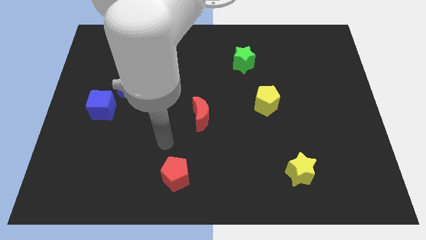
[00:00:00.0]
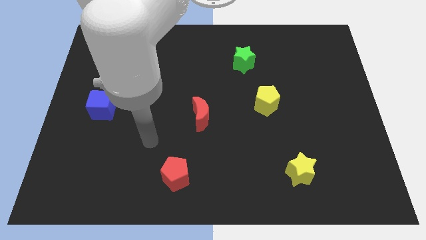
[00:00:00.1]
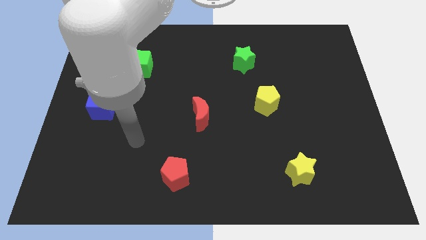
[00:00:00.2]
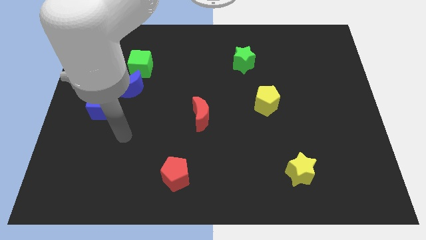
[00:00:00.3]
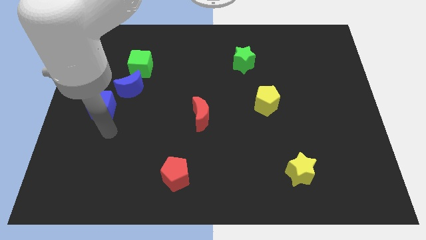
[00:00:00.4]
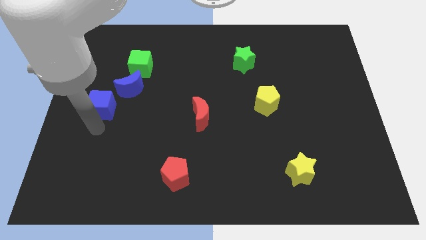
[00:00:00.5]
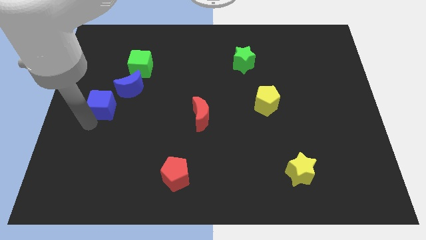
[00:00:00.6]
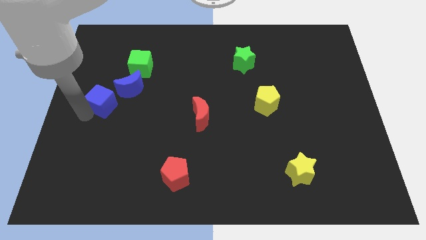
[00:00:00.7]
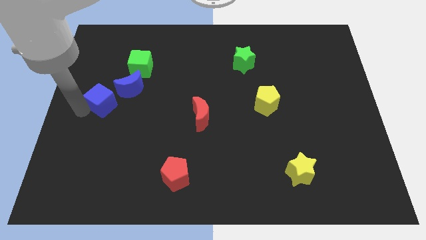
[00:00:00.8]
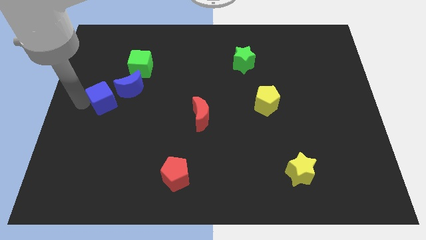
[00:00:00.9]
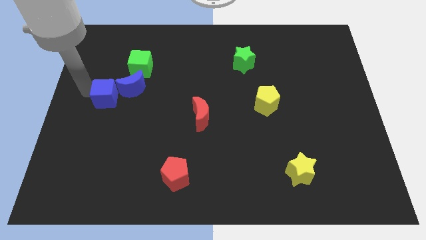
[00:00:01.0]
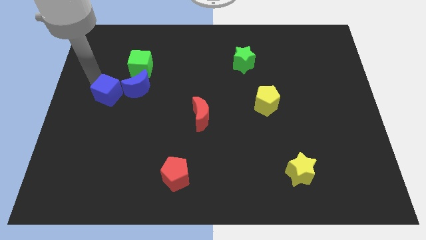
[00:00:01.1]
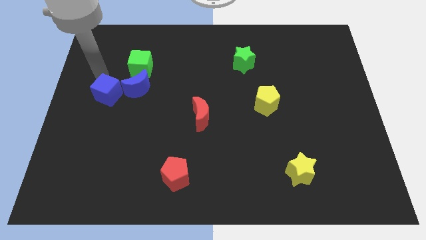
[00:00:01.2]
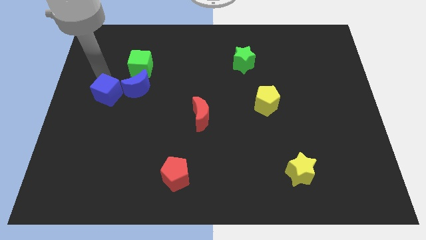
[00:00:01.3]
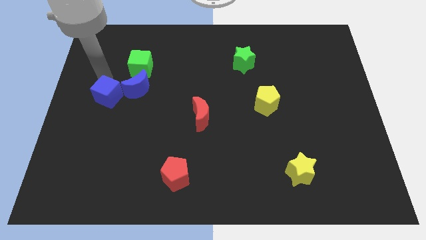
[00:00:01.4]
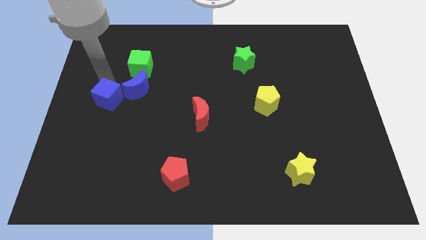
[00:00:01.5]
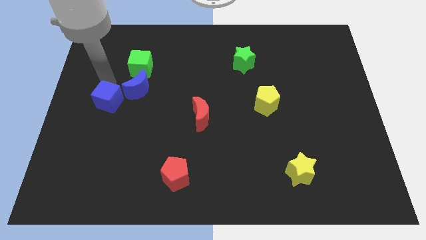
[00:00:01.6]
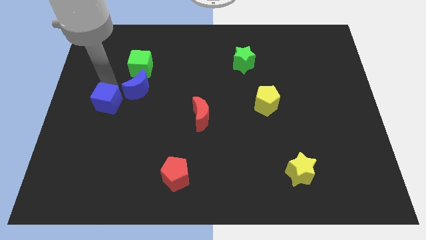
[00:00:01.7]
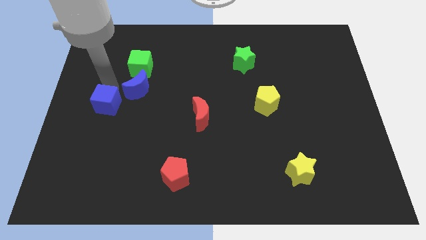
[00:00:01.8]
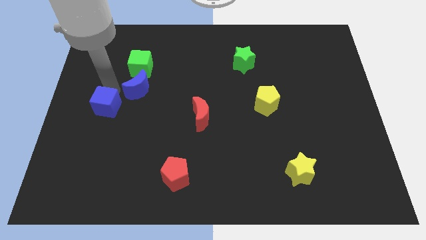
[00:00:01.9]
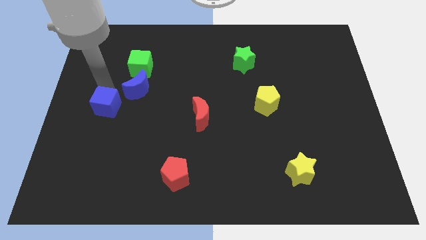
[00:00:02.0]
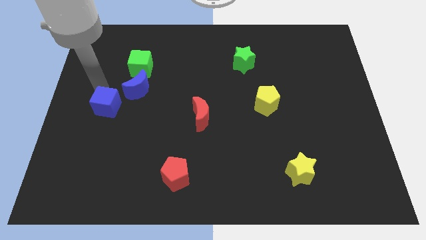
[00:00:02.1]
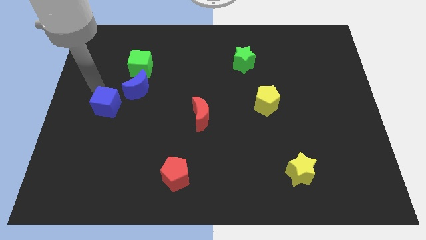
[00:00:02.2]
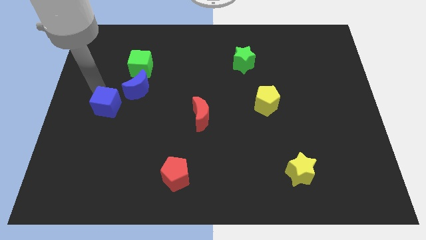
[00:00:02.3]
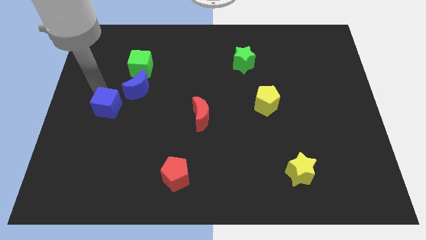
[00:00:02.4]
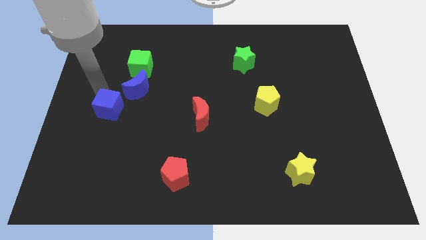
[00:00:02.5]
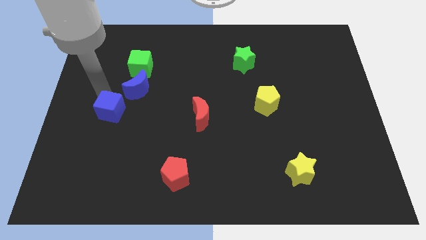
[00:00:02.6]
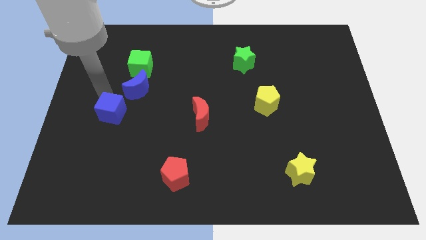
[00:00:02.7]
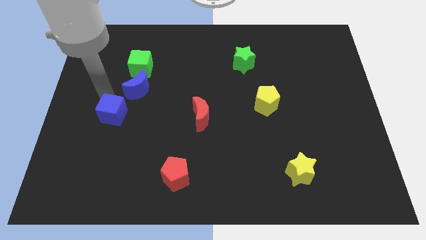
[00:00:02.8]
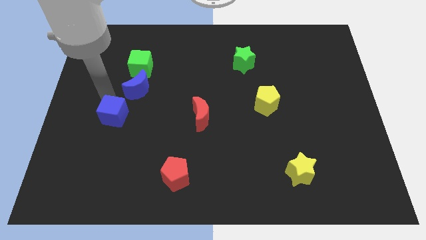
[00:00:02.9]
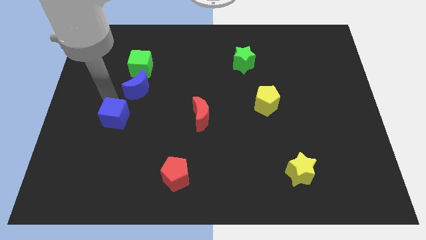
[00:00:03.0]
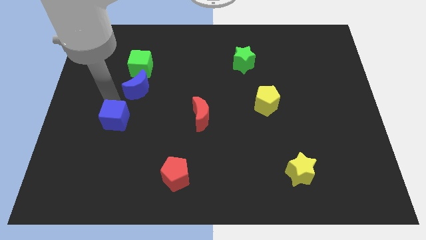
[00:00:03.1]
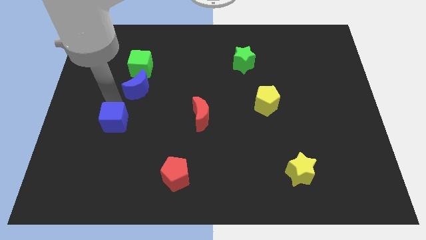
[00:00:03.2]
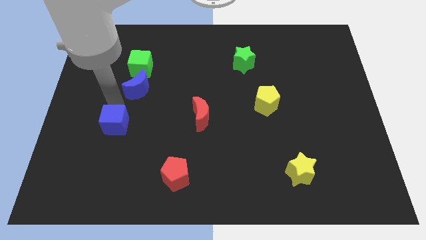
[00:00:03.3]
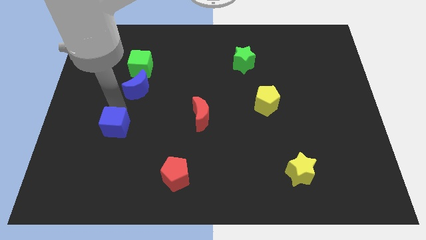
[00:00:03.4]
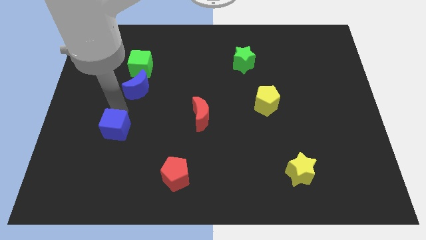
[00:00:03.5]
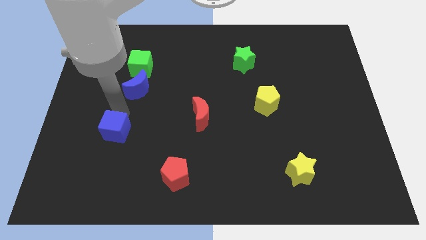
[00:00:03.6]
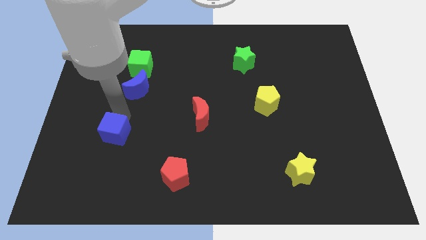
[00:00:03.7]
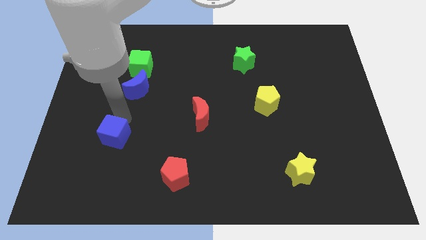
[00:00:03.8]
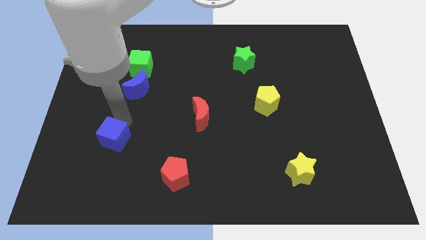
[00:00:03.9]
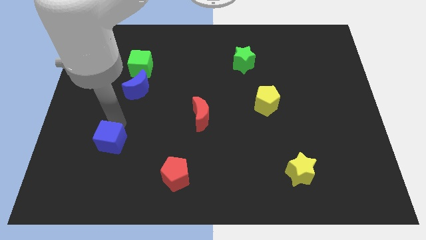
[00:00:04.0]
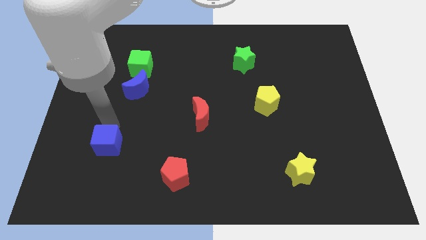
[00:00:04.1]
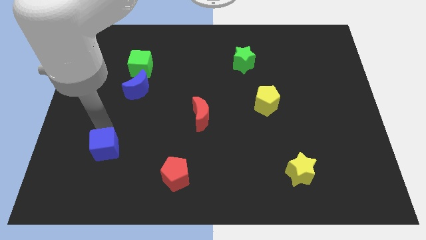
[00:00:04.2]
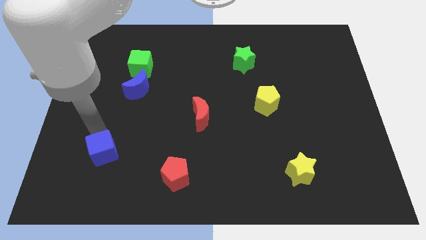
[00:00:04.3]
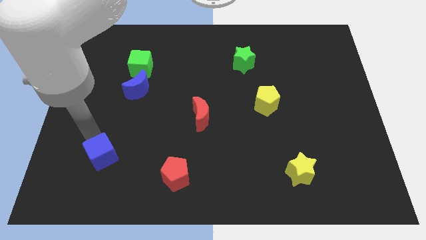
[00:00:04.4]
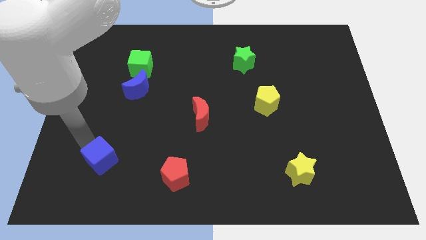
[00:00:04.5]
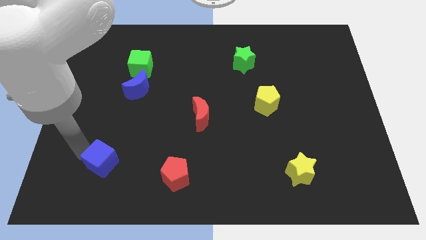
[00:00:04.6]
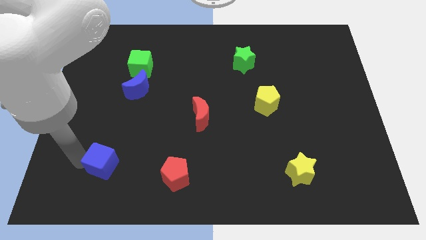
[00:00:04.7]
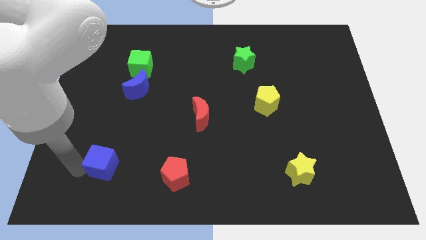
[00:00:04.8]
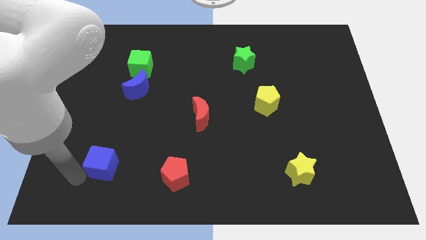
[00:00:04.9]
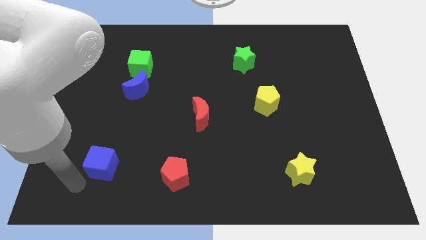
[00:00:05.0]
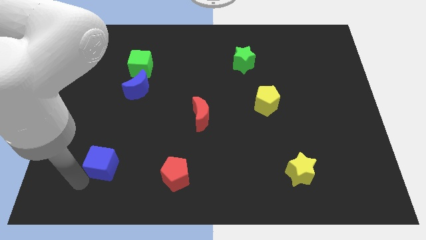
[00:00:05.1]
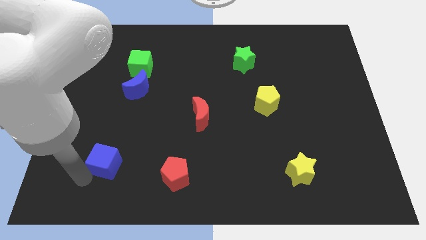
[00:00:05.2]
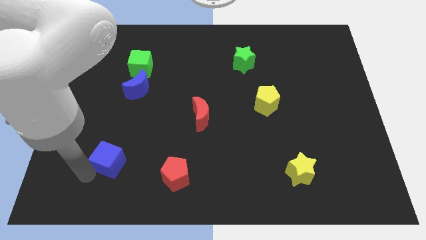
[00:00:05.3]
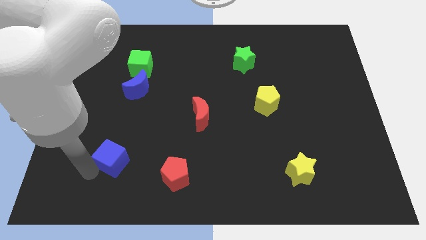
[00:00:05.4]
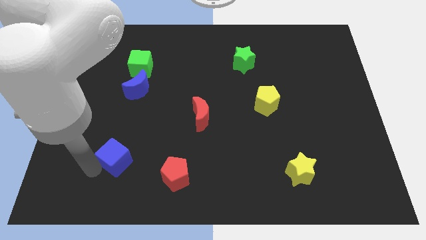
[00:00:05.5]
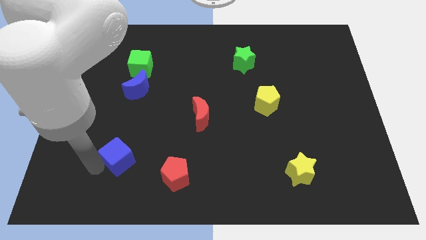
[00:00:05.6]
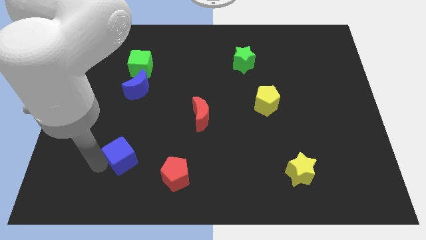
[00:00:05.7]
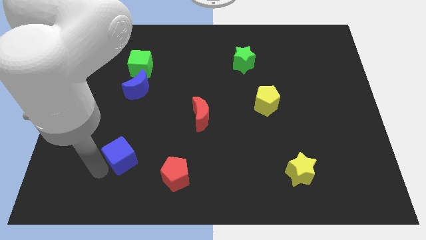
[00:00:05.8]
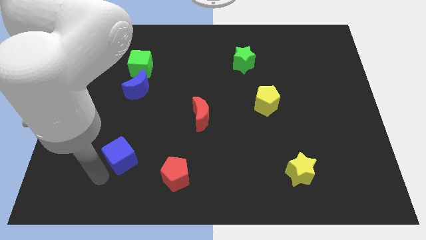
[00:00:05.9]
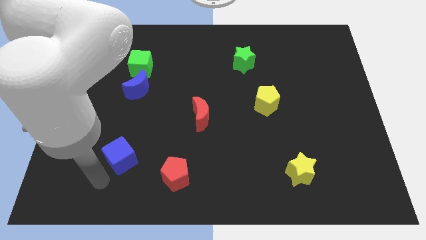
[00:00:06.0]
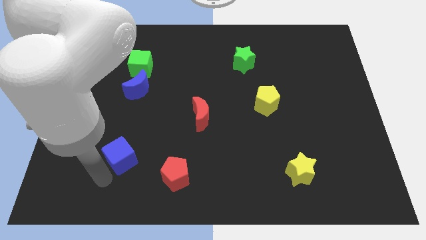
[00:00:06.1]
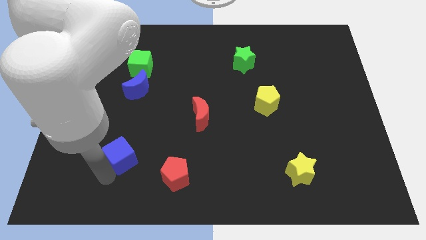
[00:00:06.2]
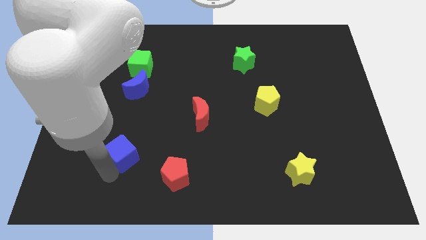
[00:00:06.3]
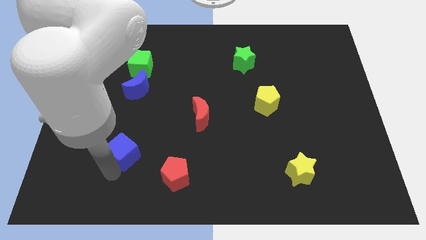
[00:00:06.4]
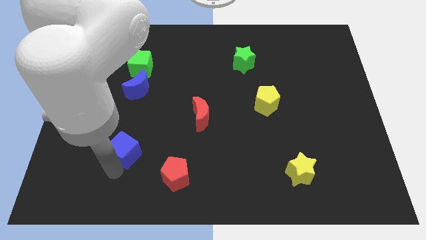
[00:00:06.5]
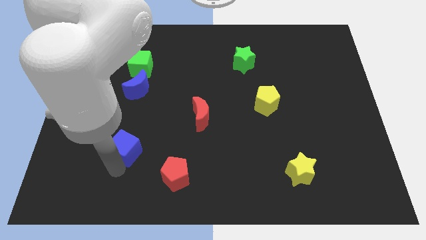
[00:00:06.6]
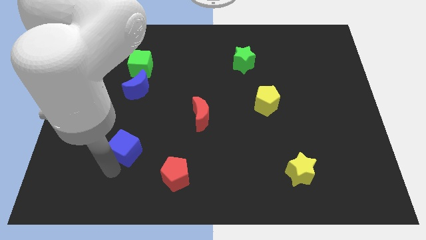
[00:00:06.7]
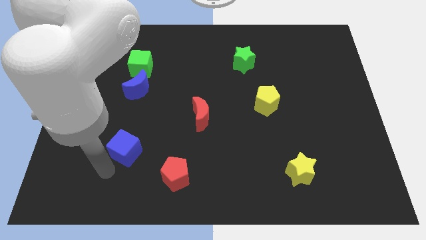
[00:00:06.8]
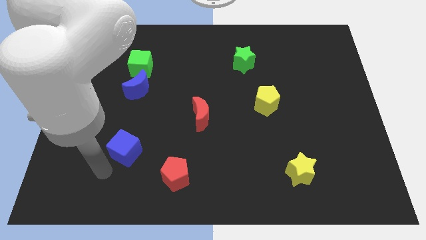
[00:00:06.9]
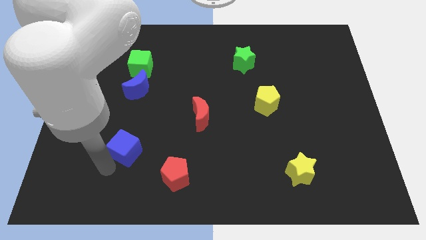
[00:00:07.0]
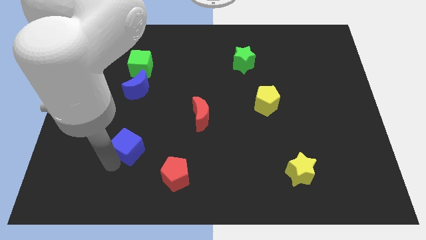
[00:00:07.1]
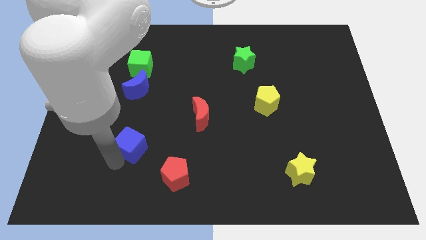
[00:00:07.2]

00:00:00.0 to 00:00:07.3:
push the blue cube to the top left of the red pentagon
